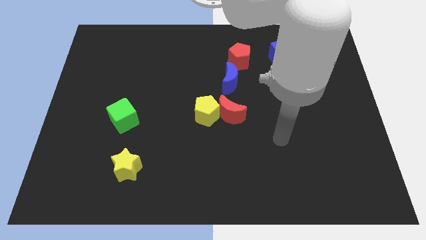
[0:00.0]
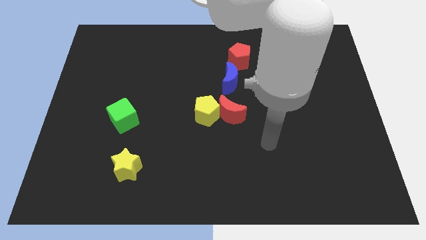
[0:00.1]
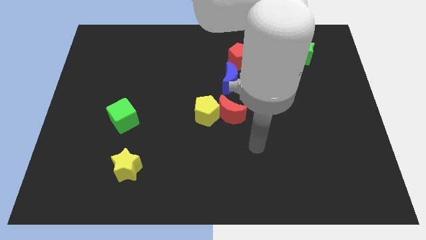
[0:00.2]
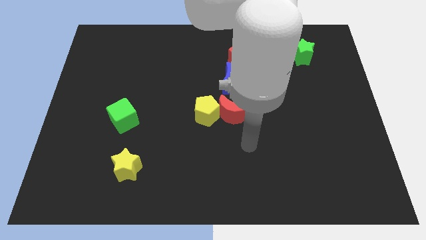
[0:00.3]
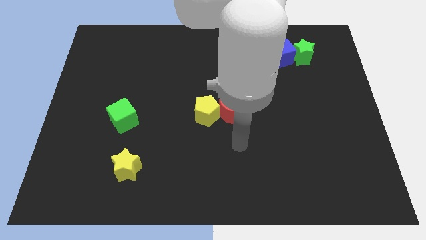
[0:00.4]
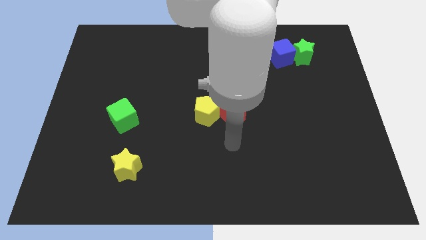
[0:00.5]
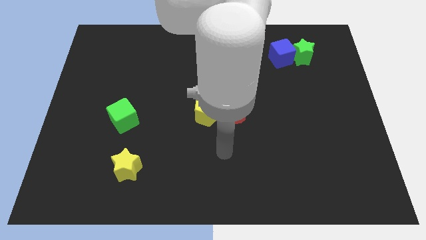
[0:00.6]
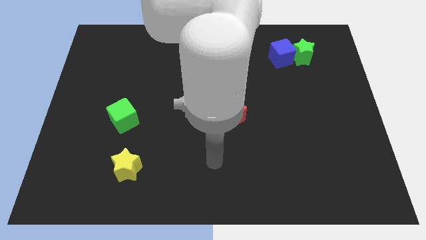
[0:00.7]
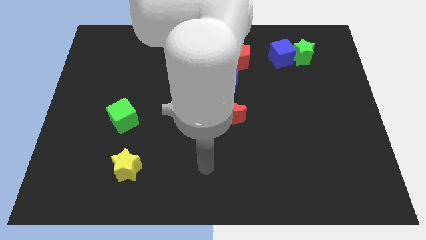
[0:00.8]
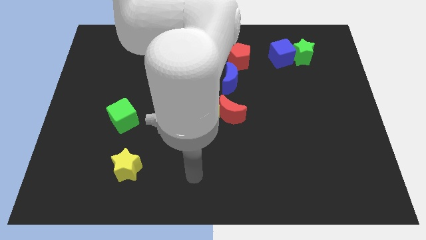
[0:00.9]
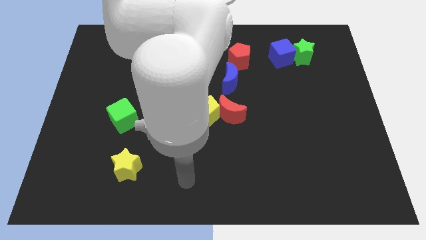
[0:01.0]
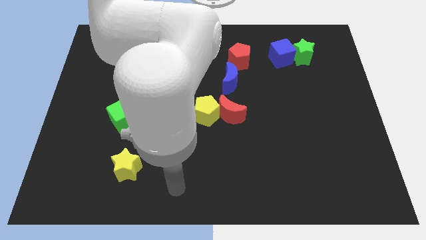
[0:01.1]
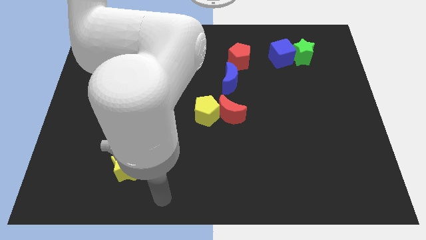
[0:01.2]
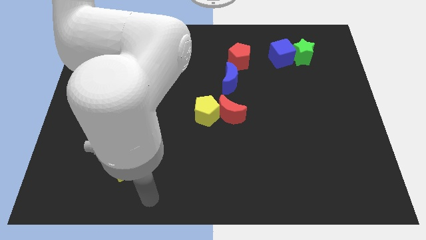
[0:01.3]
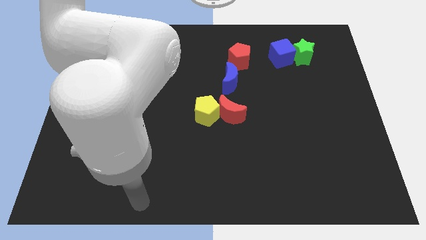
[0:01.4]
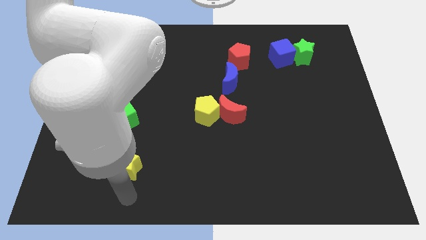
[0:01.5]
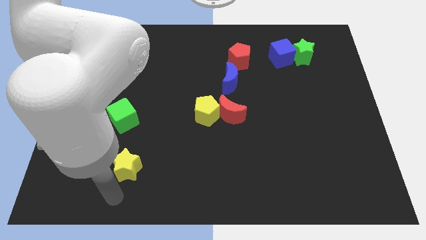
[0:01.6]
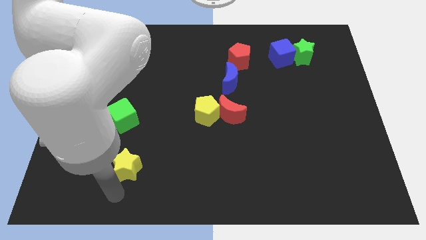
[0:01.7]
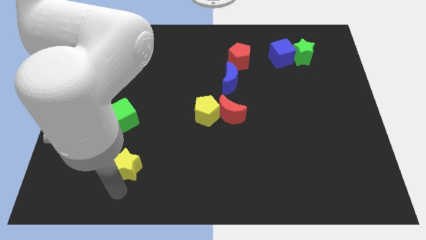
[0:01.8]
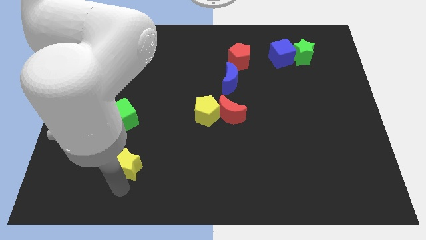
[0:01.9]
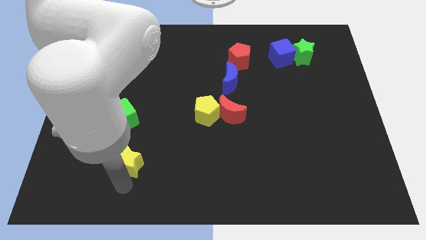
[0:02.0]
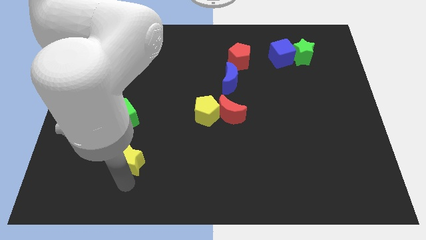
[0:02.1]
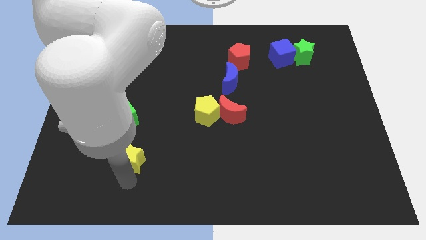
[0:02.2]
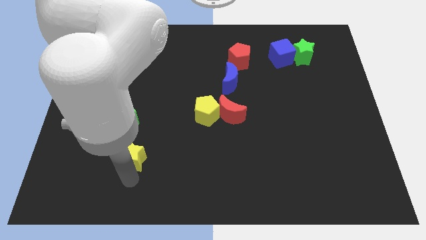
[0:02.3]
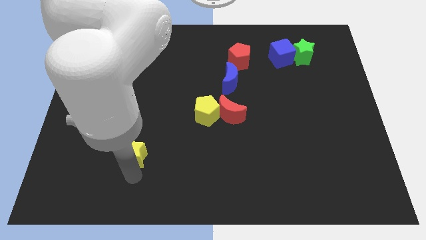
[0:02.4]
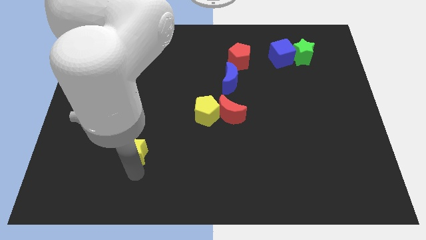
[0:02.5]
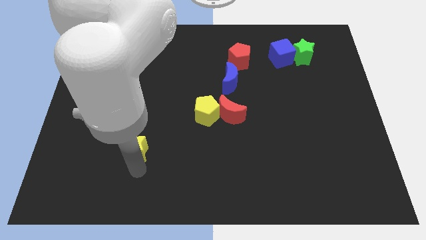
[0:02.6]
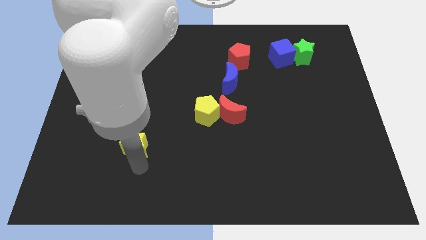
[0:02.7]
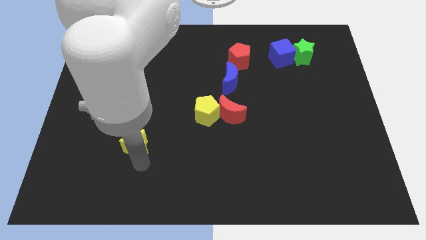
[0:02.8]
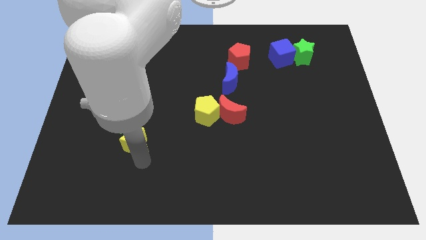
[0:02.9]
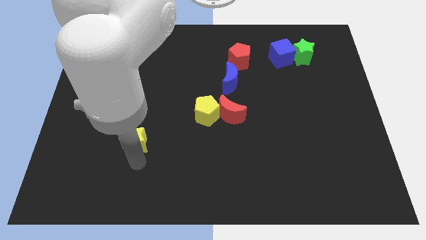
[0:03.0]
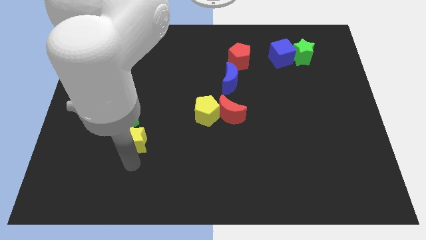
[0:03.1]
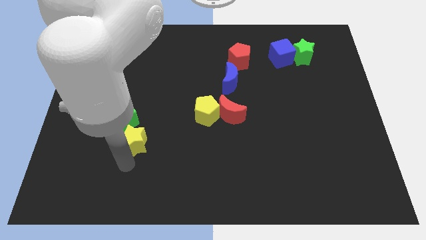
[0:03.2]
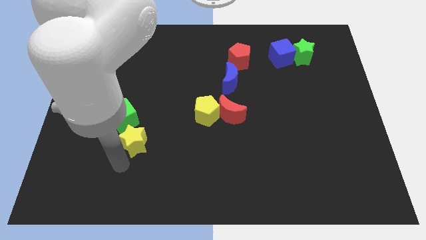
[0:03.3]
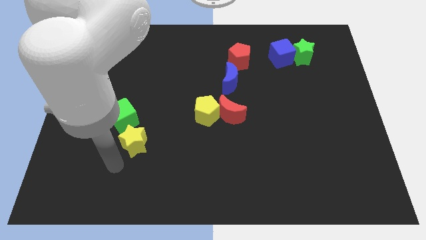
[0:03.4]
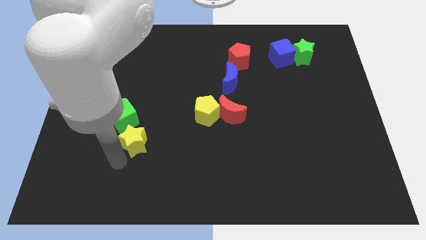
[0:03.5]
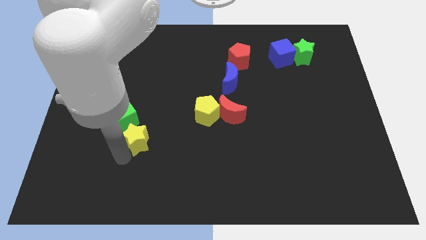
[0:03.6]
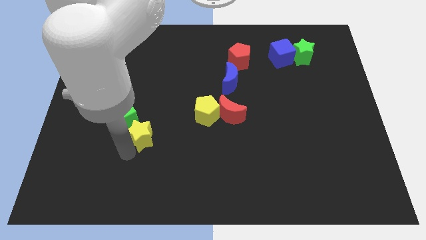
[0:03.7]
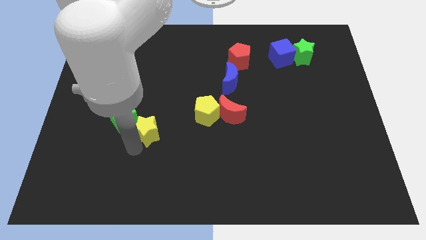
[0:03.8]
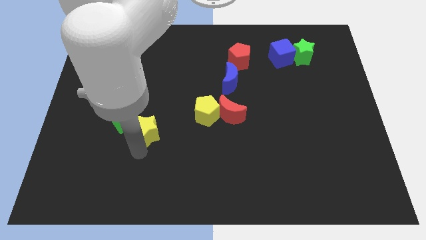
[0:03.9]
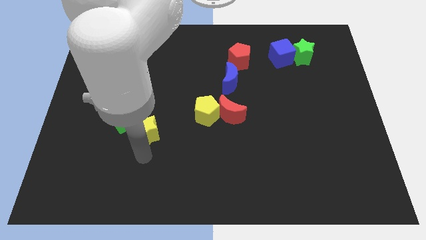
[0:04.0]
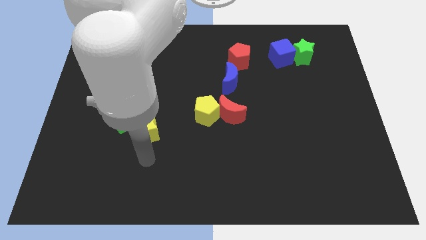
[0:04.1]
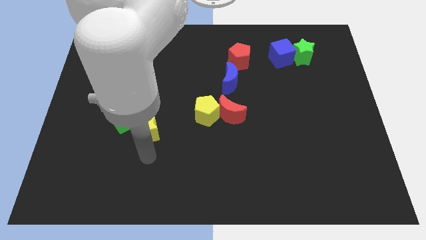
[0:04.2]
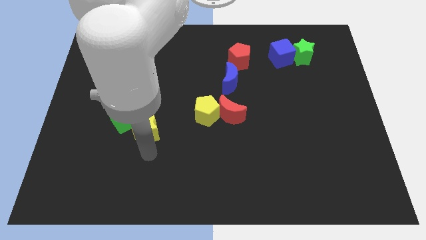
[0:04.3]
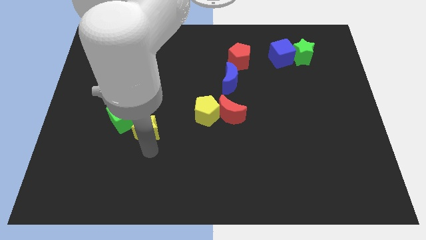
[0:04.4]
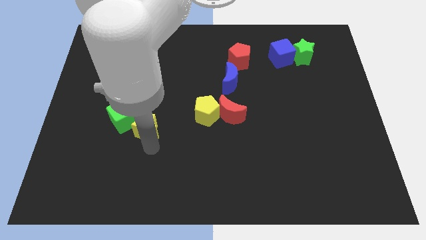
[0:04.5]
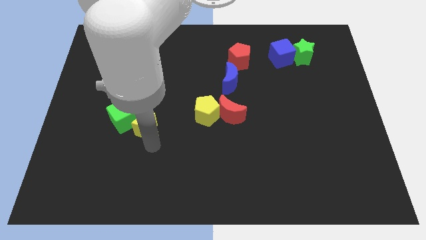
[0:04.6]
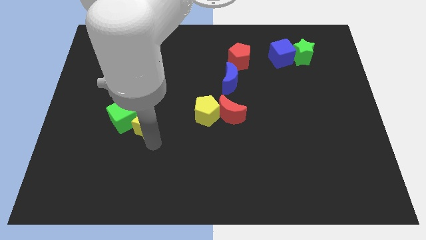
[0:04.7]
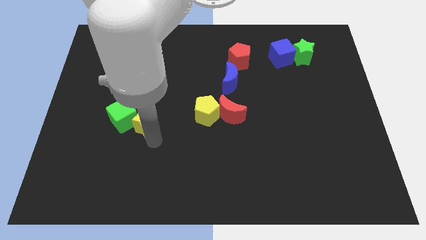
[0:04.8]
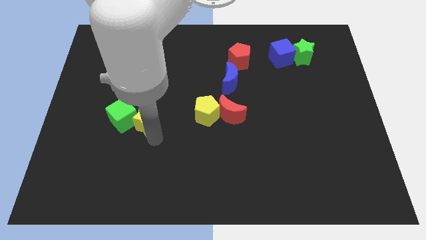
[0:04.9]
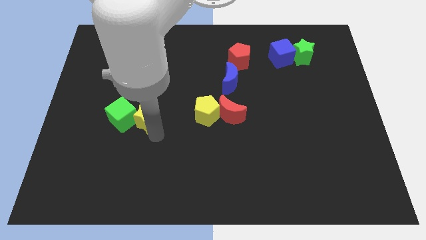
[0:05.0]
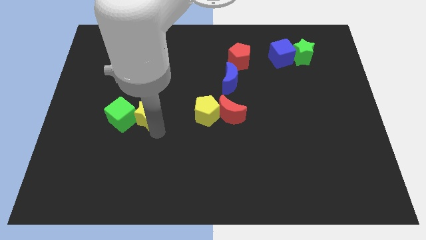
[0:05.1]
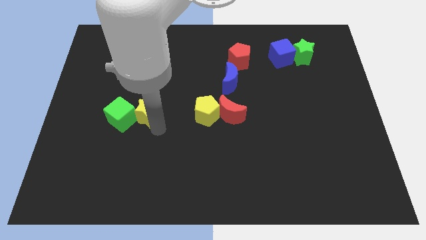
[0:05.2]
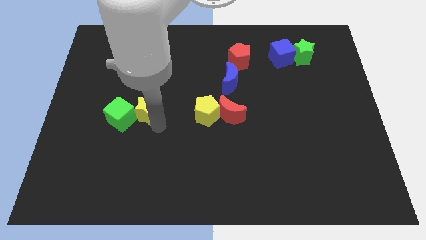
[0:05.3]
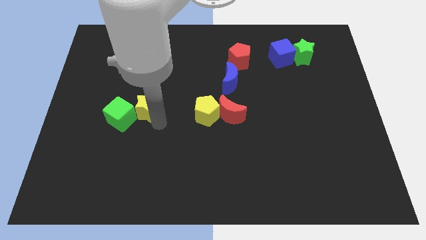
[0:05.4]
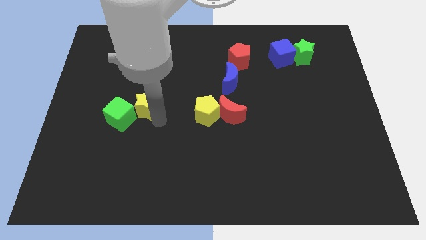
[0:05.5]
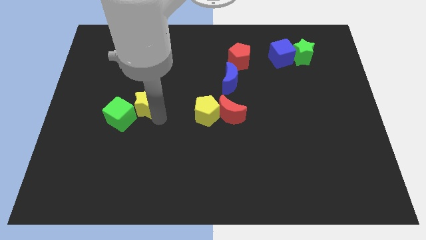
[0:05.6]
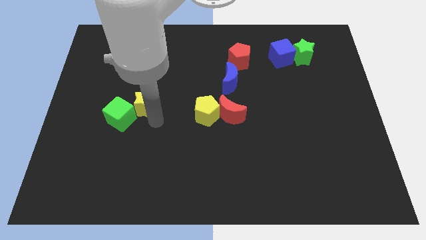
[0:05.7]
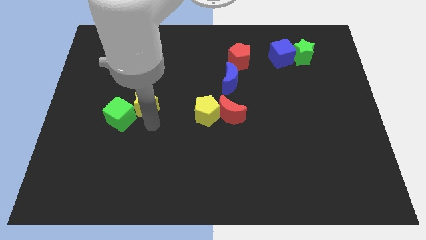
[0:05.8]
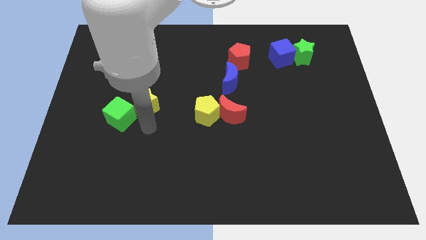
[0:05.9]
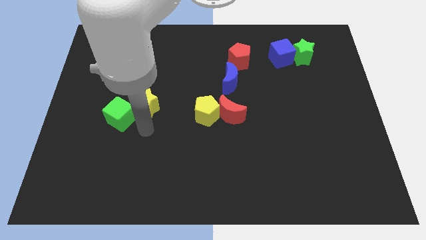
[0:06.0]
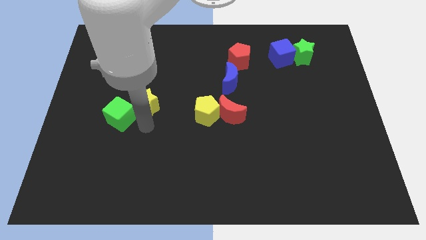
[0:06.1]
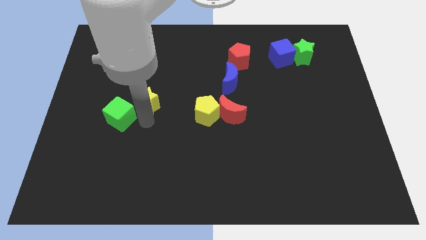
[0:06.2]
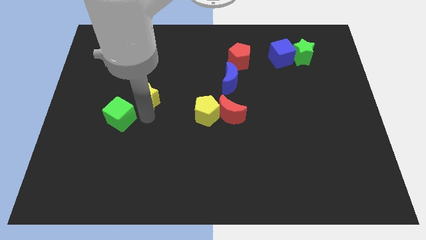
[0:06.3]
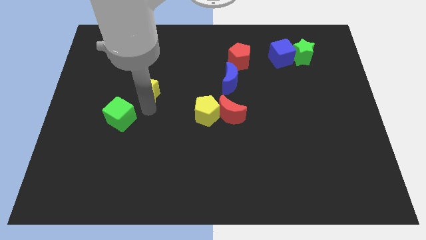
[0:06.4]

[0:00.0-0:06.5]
move the yellow star up

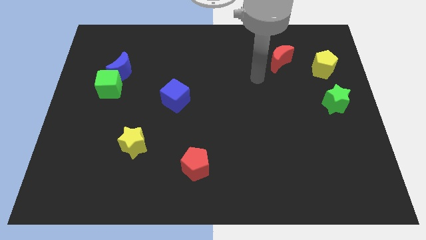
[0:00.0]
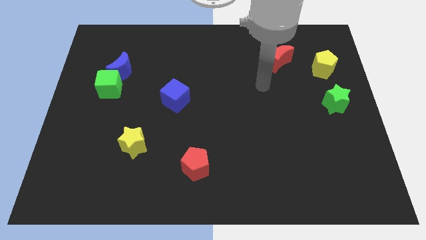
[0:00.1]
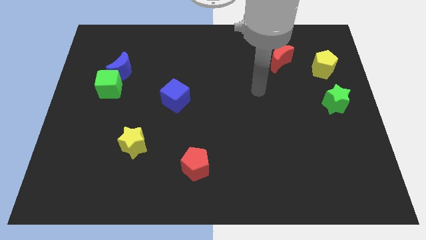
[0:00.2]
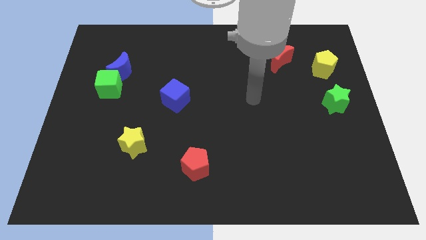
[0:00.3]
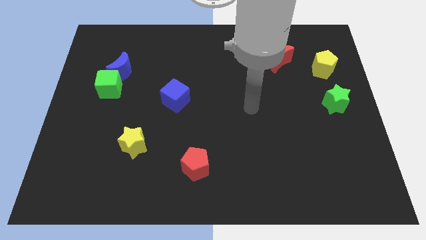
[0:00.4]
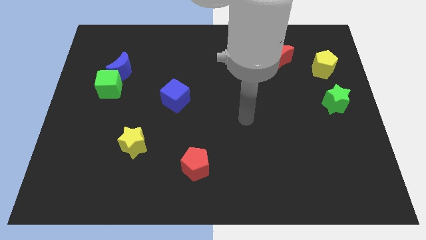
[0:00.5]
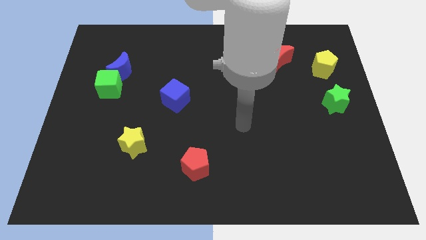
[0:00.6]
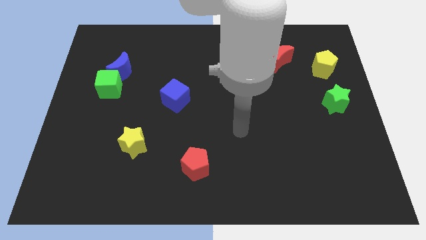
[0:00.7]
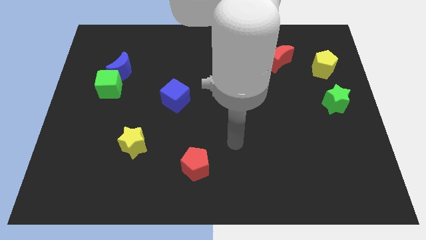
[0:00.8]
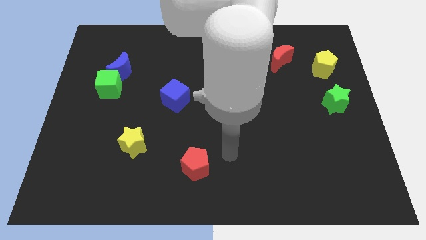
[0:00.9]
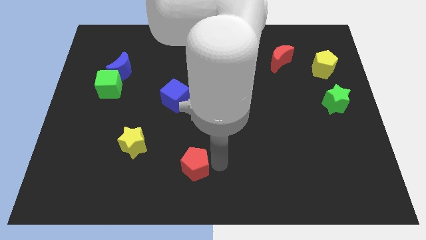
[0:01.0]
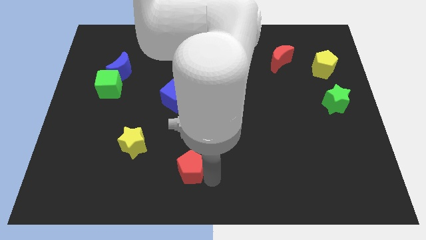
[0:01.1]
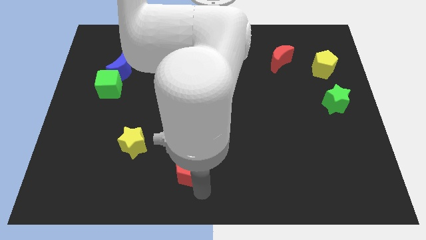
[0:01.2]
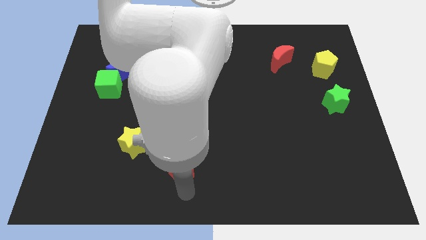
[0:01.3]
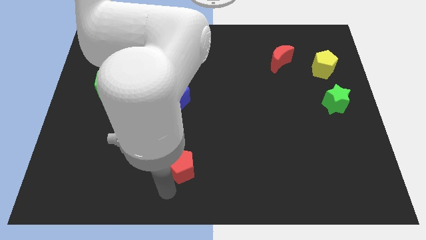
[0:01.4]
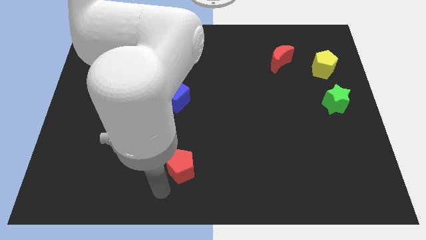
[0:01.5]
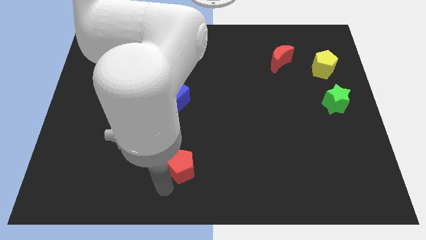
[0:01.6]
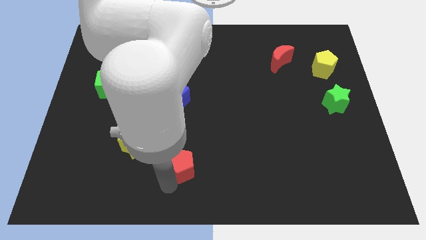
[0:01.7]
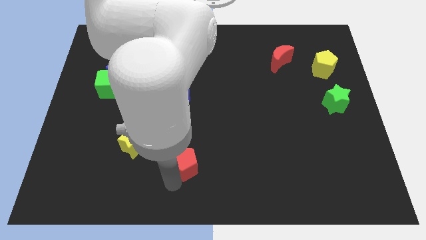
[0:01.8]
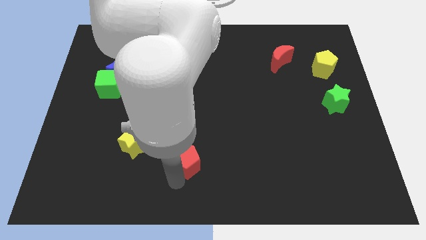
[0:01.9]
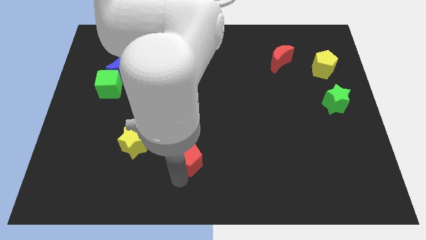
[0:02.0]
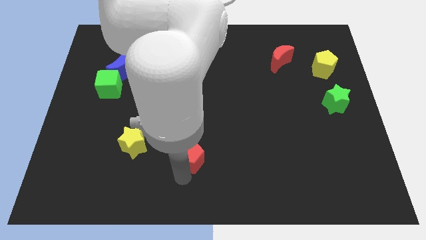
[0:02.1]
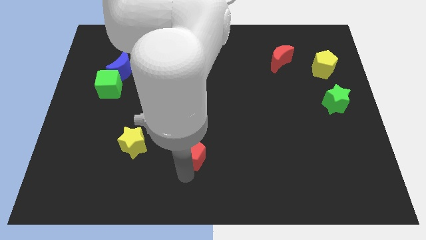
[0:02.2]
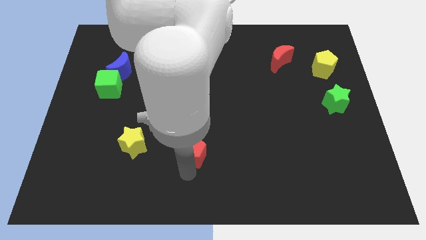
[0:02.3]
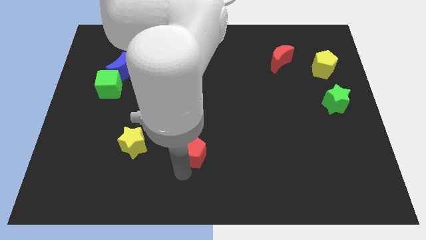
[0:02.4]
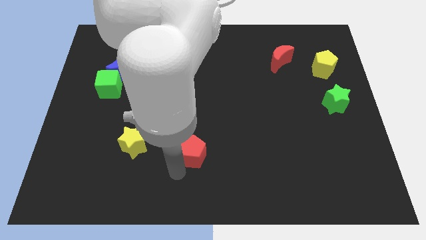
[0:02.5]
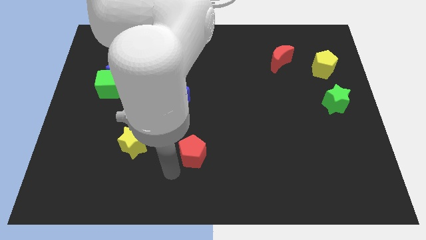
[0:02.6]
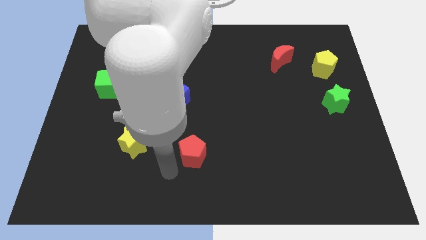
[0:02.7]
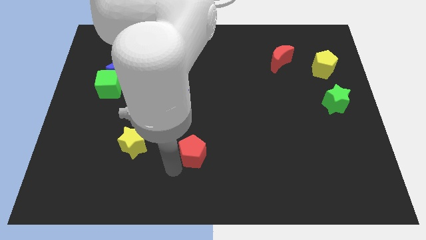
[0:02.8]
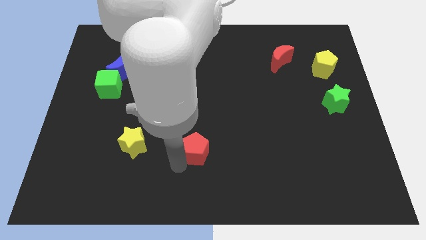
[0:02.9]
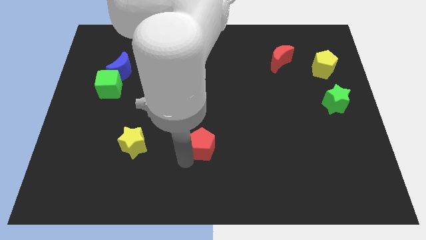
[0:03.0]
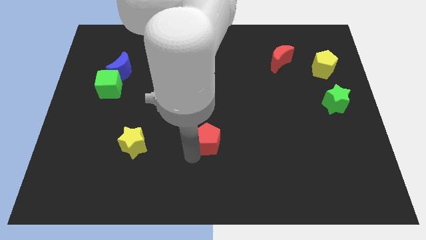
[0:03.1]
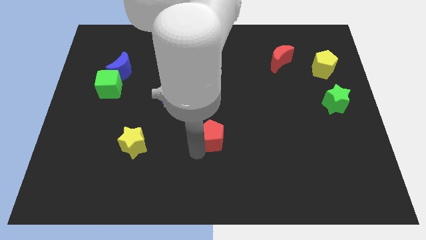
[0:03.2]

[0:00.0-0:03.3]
slide the red pentagon diagonally up and right a little
